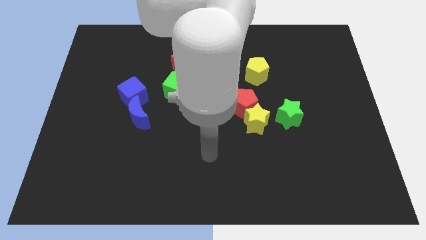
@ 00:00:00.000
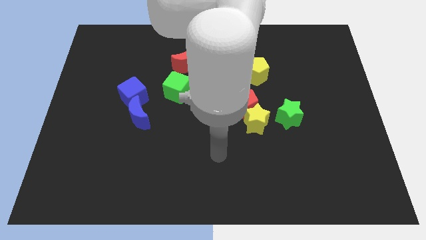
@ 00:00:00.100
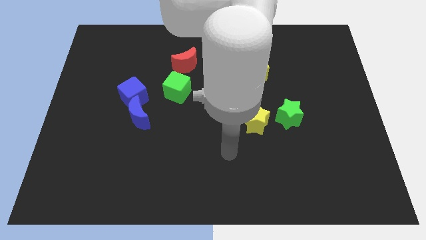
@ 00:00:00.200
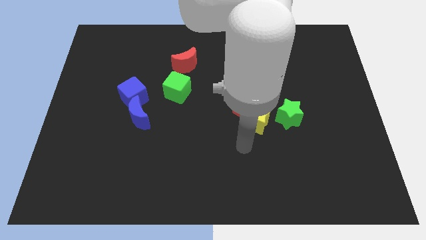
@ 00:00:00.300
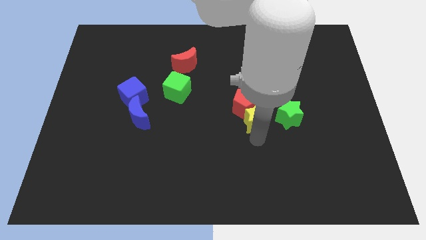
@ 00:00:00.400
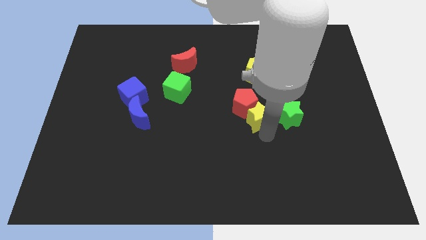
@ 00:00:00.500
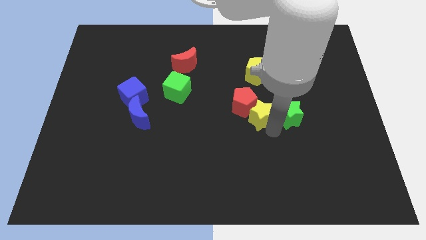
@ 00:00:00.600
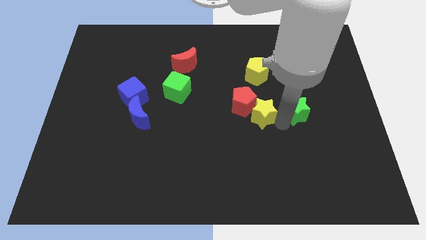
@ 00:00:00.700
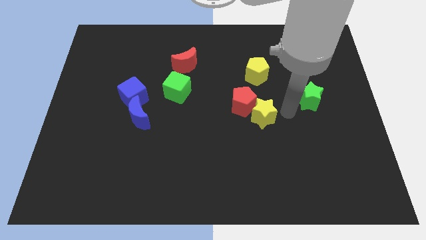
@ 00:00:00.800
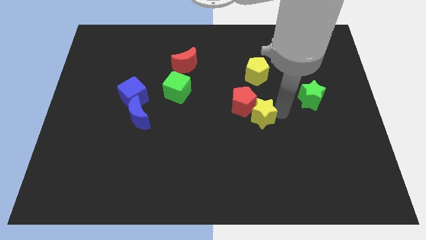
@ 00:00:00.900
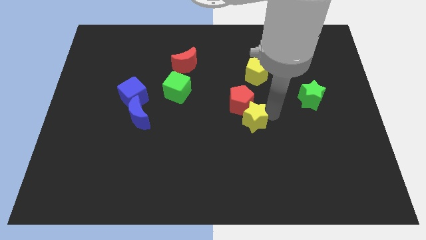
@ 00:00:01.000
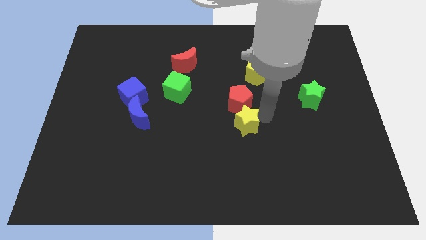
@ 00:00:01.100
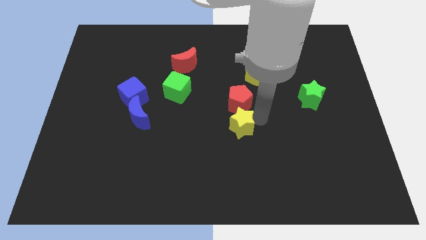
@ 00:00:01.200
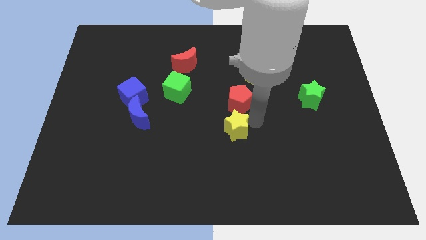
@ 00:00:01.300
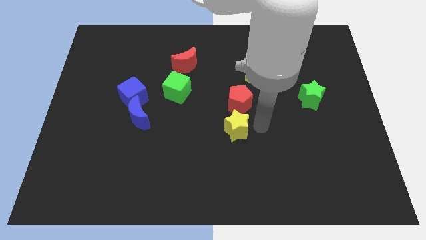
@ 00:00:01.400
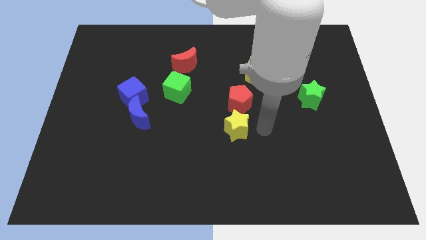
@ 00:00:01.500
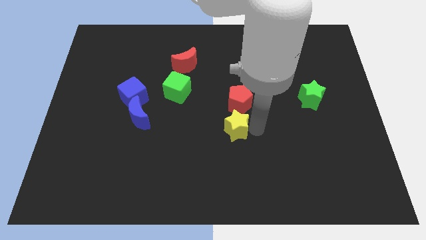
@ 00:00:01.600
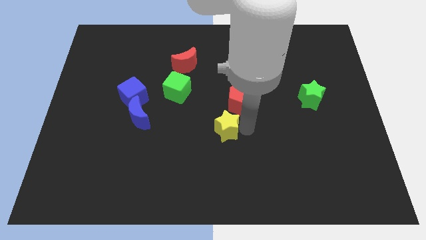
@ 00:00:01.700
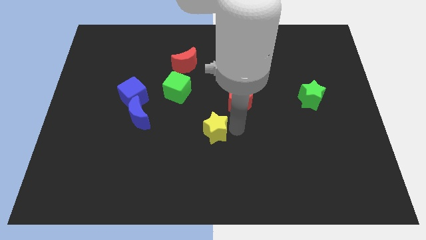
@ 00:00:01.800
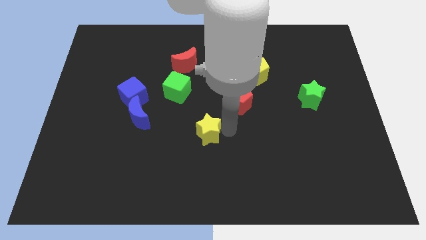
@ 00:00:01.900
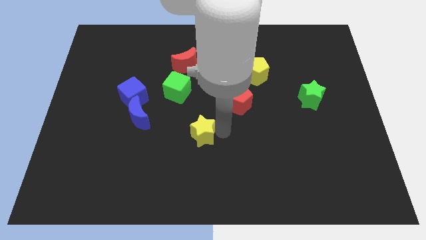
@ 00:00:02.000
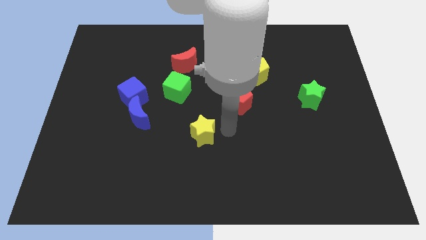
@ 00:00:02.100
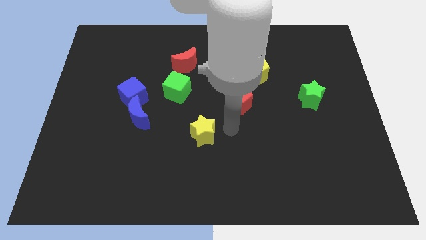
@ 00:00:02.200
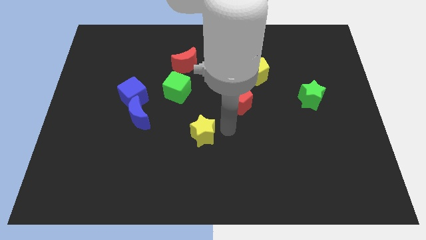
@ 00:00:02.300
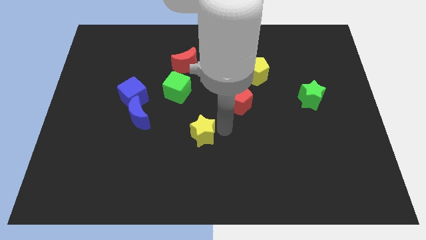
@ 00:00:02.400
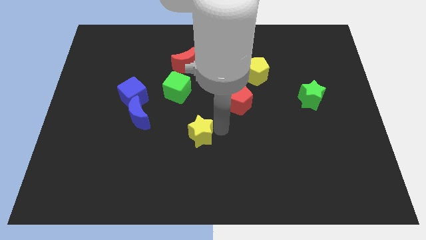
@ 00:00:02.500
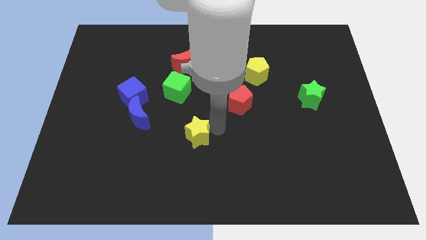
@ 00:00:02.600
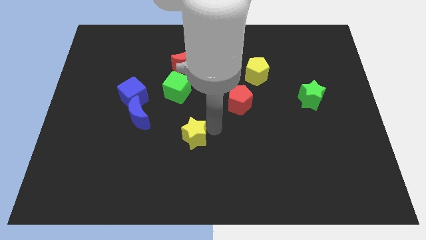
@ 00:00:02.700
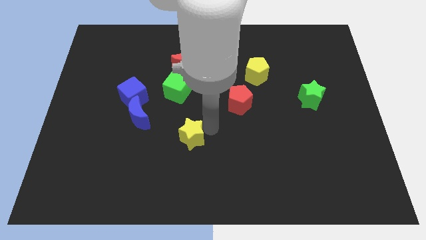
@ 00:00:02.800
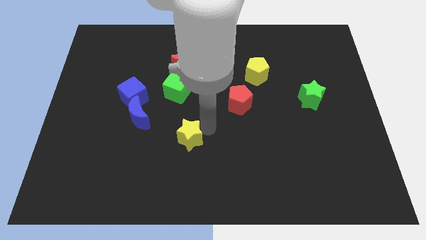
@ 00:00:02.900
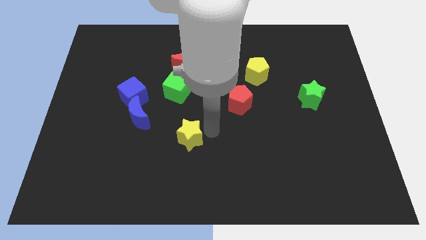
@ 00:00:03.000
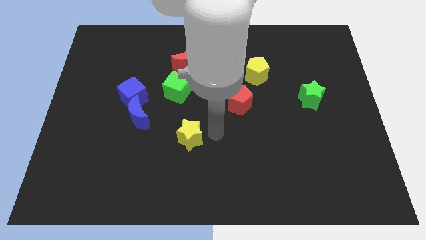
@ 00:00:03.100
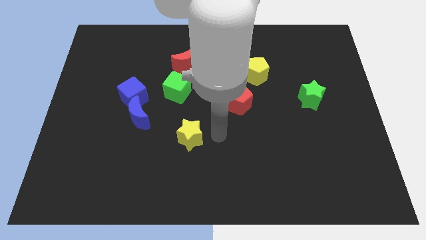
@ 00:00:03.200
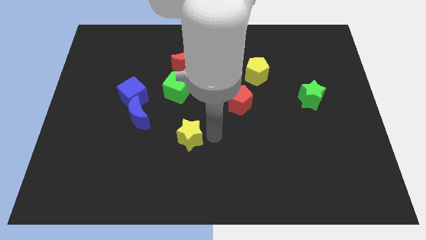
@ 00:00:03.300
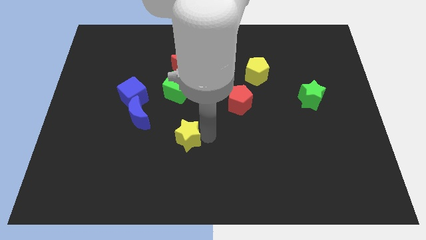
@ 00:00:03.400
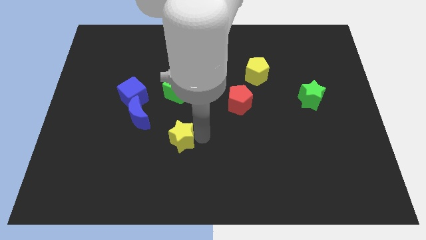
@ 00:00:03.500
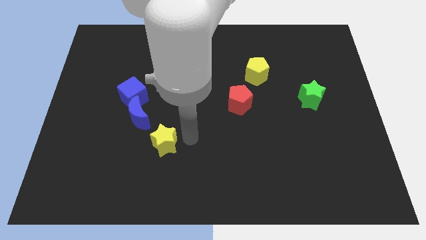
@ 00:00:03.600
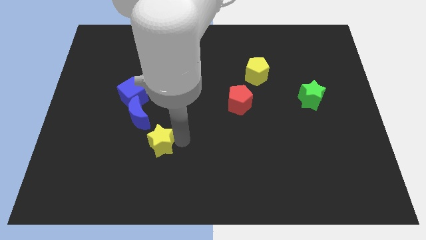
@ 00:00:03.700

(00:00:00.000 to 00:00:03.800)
push the yellow star left

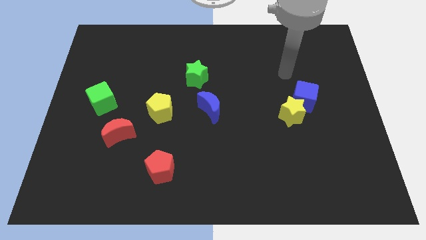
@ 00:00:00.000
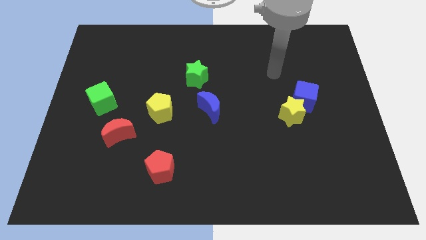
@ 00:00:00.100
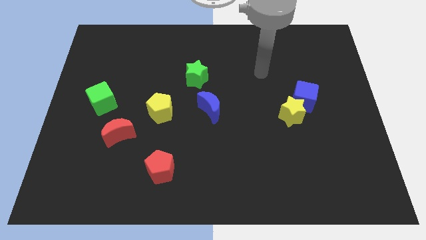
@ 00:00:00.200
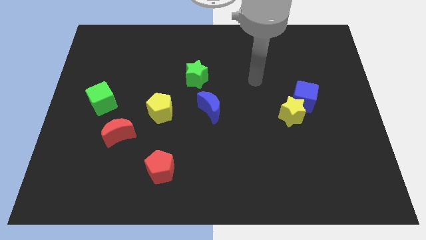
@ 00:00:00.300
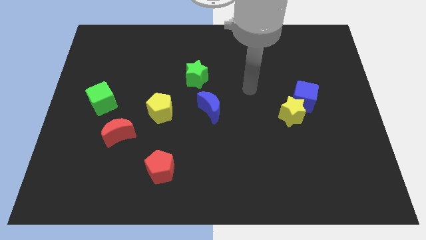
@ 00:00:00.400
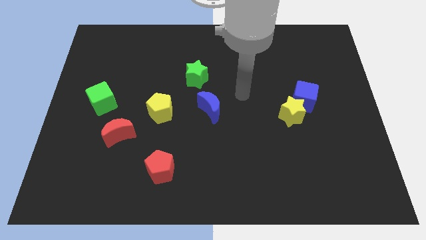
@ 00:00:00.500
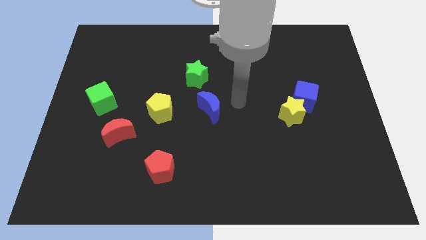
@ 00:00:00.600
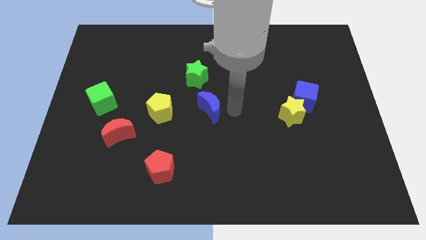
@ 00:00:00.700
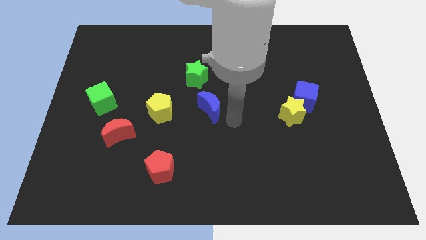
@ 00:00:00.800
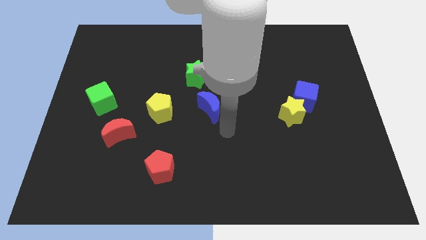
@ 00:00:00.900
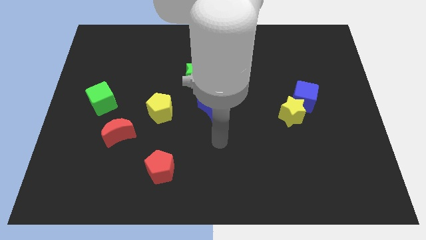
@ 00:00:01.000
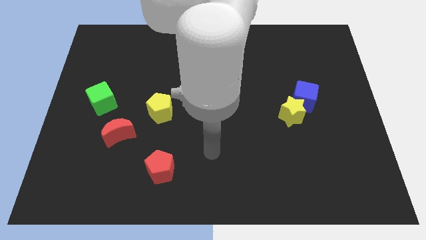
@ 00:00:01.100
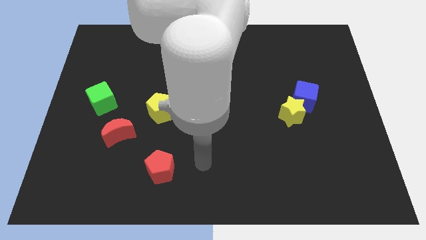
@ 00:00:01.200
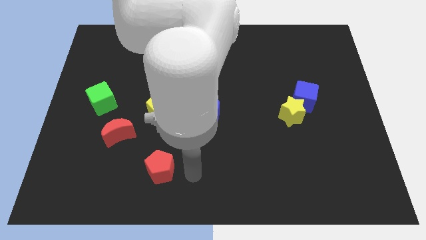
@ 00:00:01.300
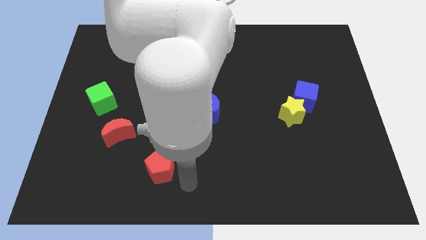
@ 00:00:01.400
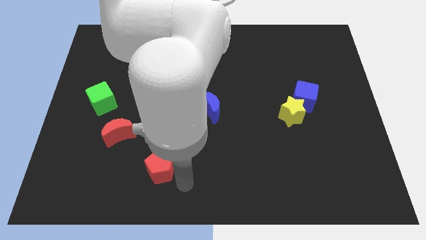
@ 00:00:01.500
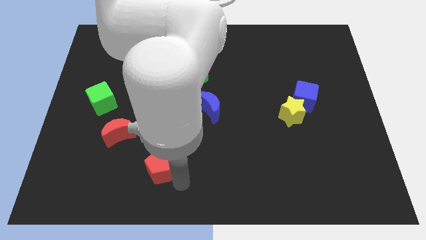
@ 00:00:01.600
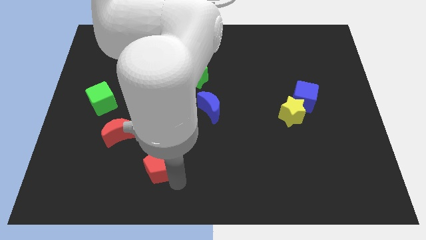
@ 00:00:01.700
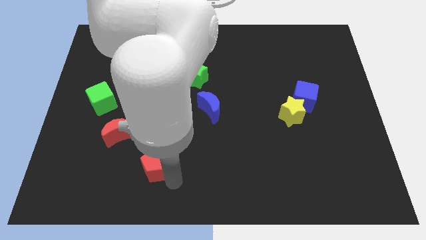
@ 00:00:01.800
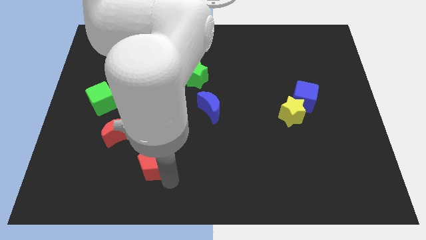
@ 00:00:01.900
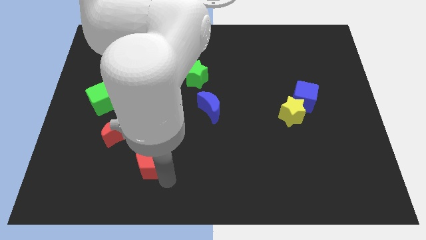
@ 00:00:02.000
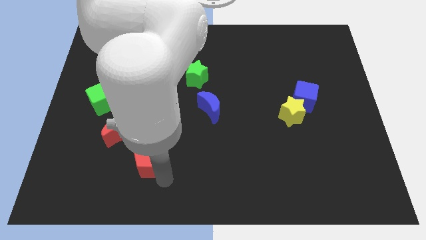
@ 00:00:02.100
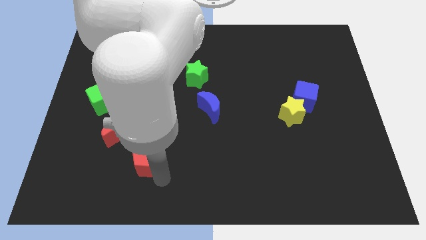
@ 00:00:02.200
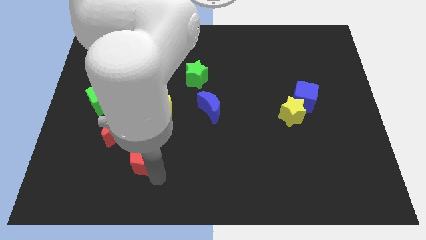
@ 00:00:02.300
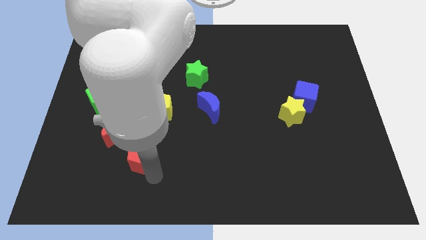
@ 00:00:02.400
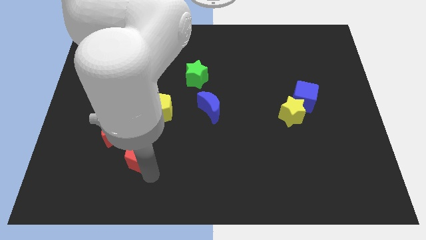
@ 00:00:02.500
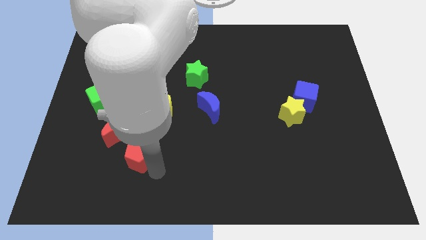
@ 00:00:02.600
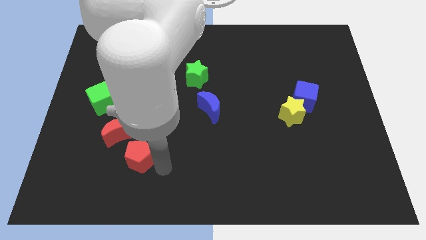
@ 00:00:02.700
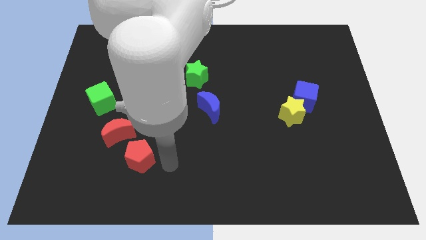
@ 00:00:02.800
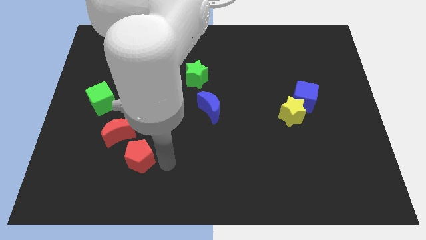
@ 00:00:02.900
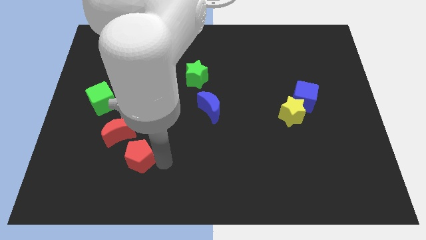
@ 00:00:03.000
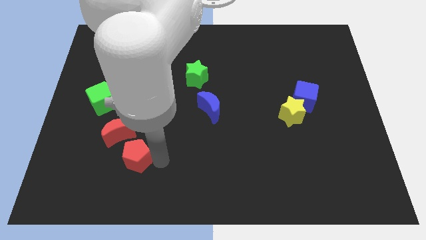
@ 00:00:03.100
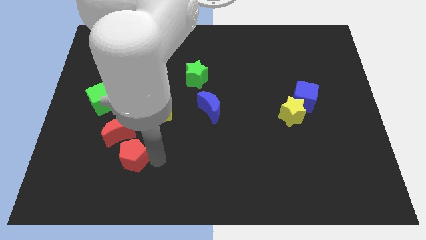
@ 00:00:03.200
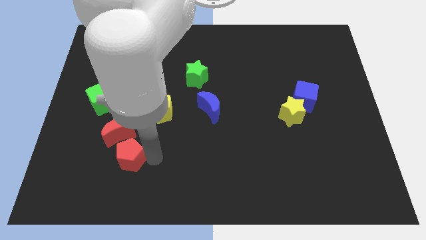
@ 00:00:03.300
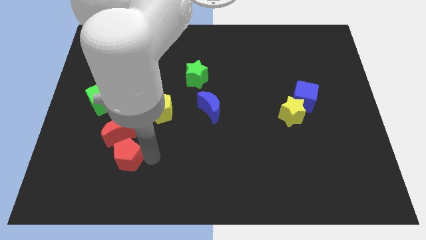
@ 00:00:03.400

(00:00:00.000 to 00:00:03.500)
slightly move the red pentagon upwards and to the left

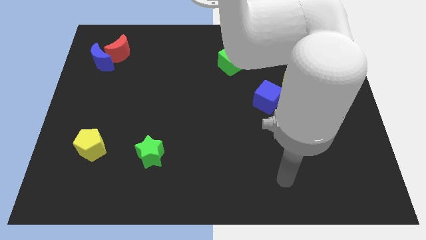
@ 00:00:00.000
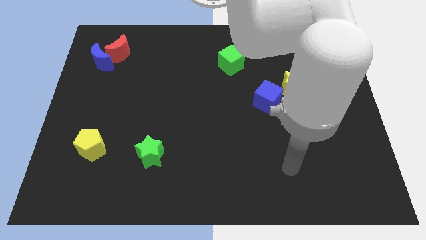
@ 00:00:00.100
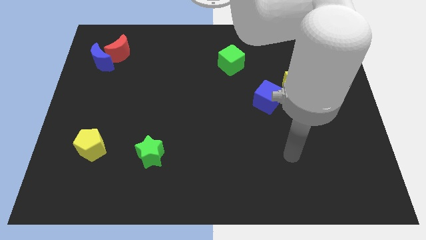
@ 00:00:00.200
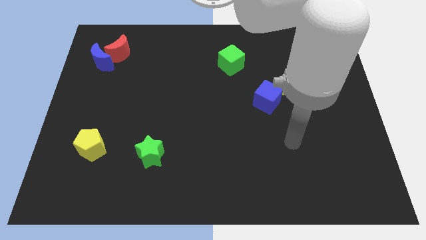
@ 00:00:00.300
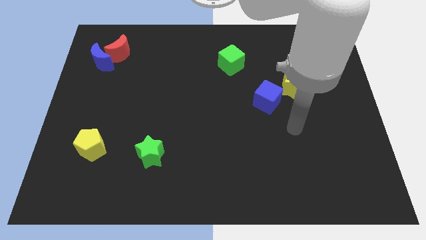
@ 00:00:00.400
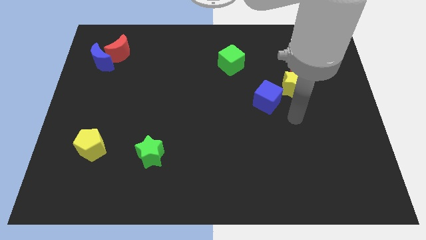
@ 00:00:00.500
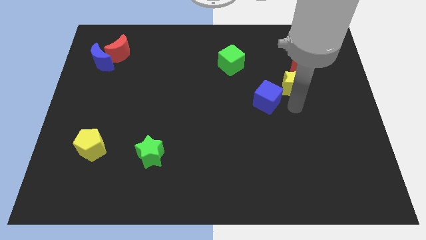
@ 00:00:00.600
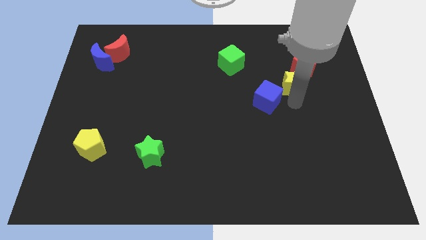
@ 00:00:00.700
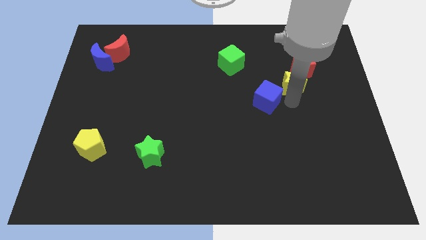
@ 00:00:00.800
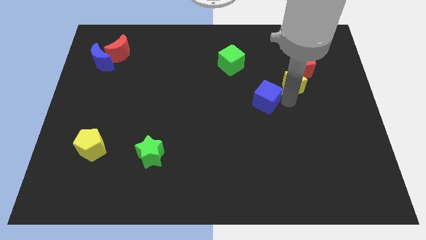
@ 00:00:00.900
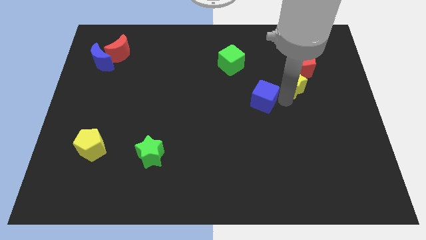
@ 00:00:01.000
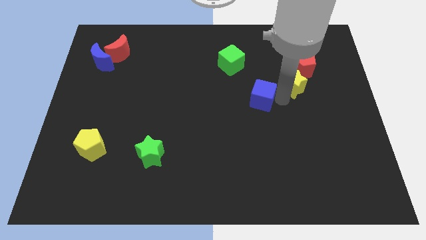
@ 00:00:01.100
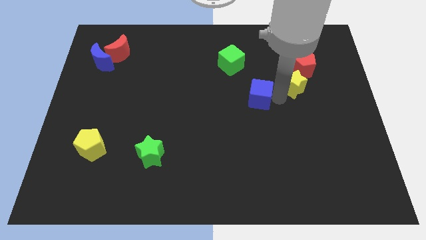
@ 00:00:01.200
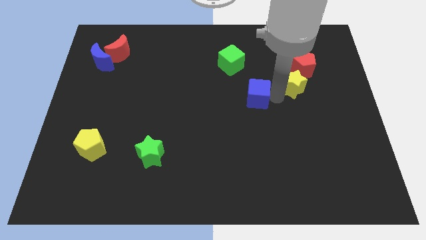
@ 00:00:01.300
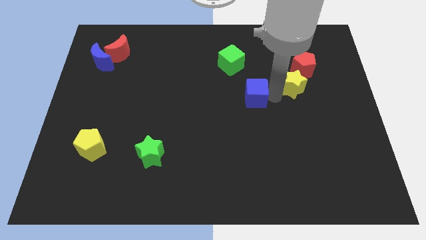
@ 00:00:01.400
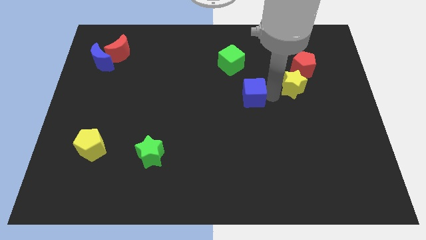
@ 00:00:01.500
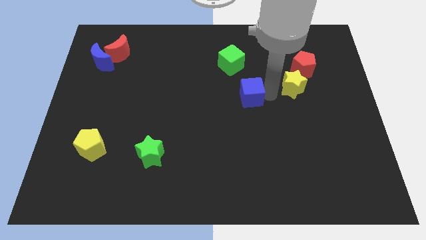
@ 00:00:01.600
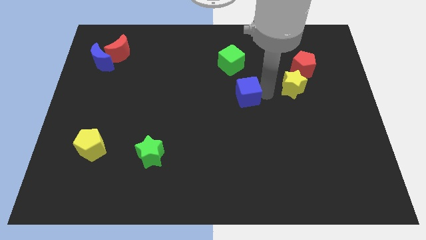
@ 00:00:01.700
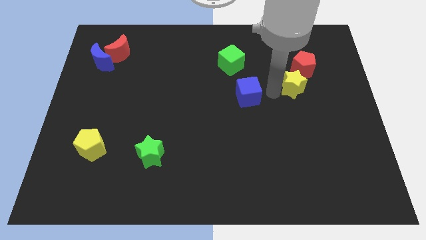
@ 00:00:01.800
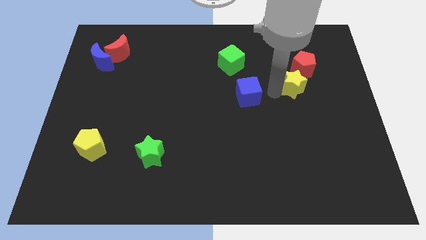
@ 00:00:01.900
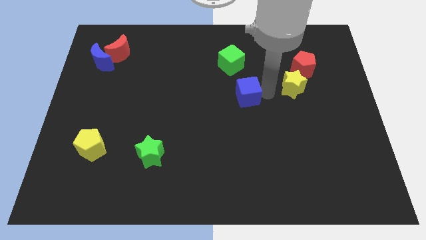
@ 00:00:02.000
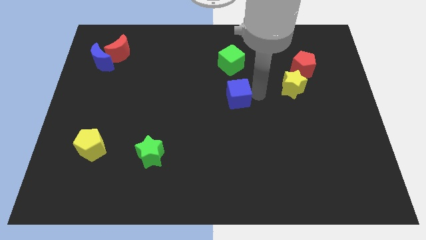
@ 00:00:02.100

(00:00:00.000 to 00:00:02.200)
push the blue cube a little bit to the left
